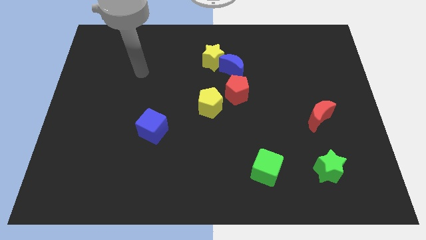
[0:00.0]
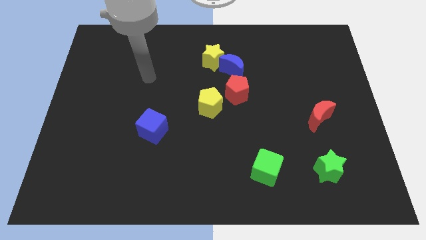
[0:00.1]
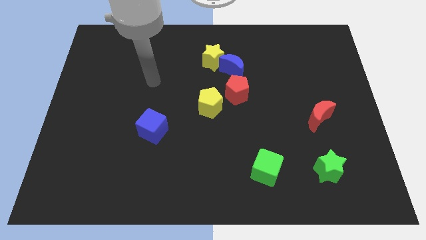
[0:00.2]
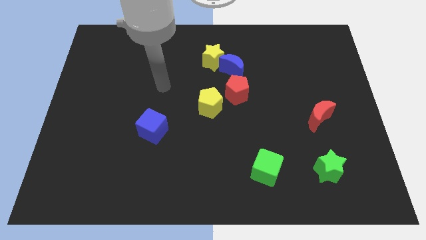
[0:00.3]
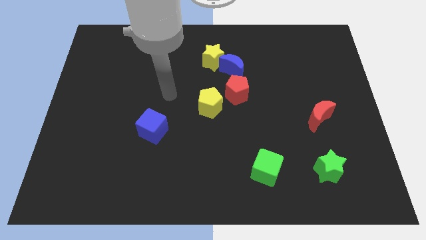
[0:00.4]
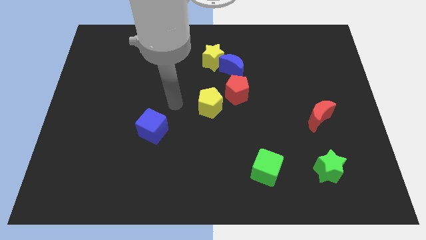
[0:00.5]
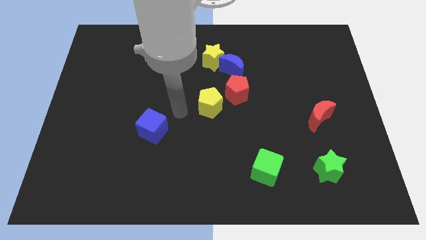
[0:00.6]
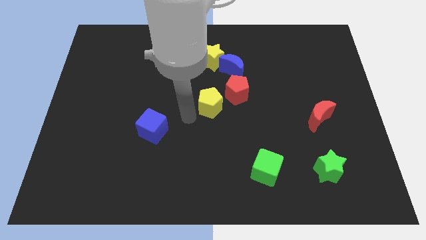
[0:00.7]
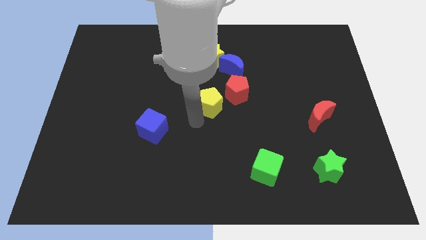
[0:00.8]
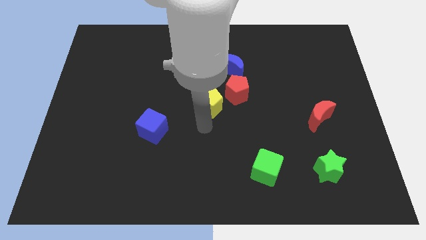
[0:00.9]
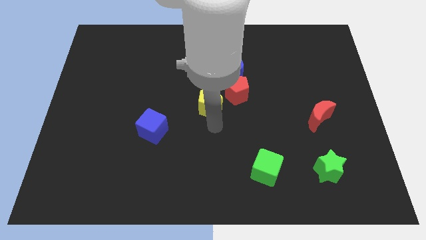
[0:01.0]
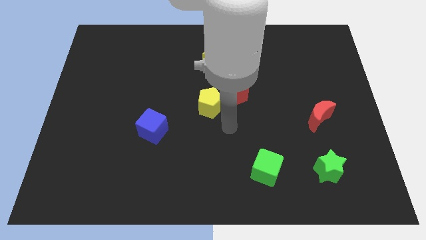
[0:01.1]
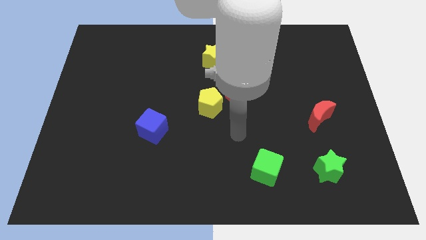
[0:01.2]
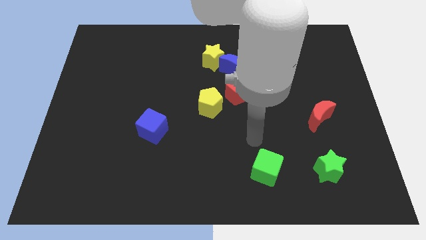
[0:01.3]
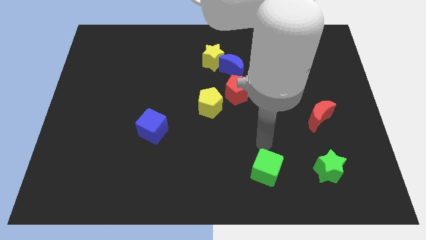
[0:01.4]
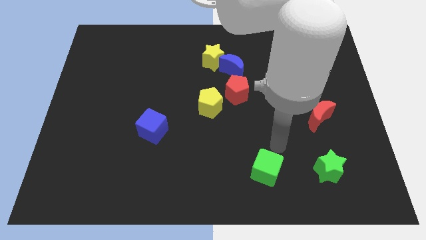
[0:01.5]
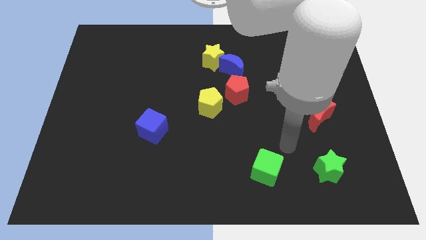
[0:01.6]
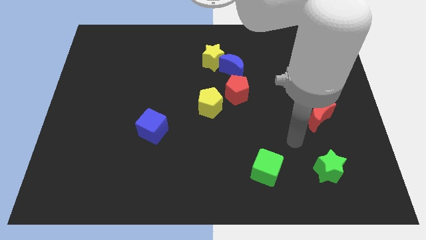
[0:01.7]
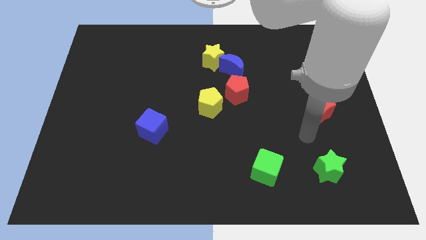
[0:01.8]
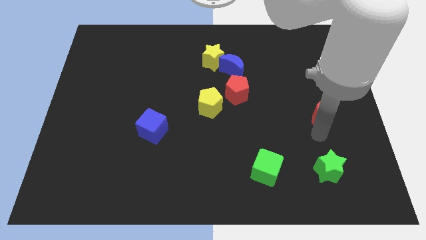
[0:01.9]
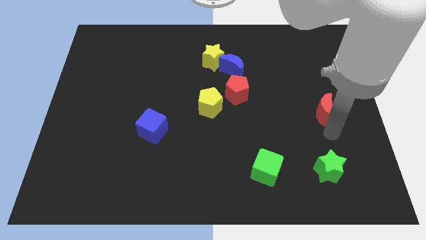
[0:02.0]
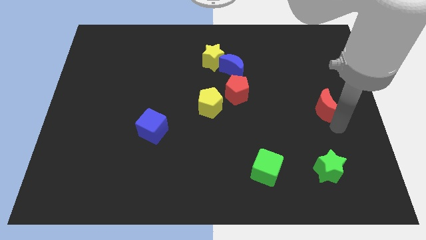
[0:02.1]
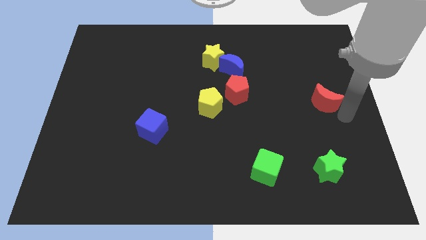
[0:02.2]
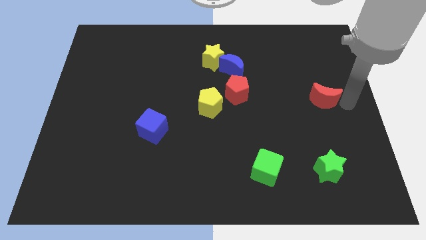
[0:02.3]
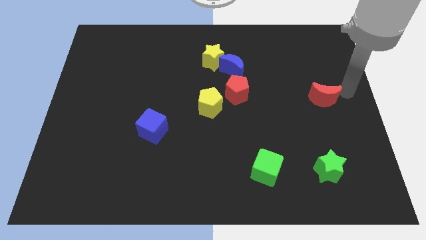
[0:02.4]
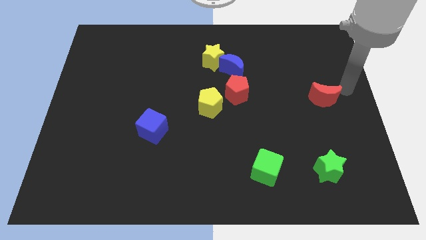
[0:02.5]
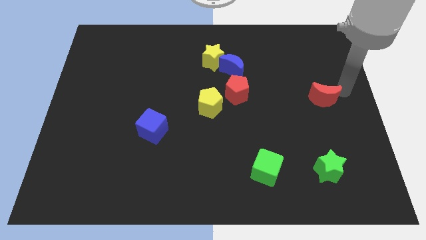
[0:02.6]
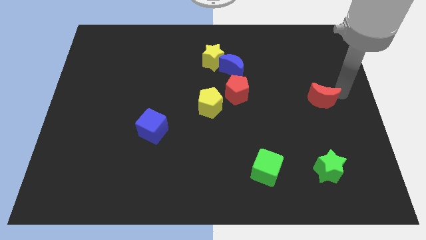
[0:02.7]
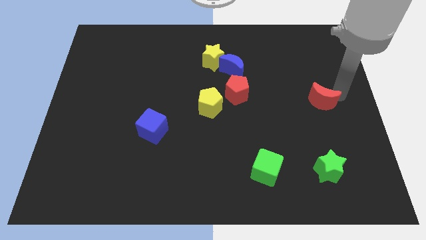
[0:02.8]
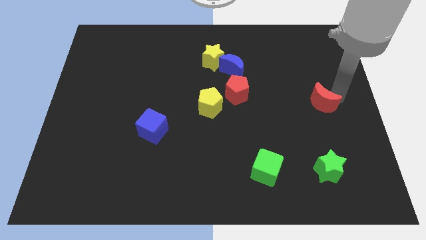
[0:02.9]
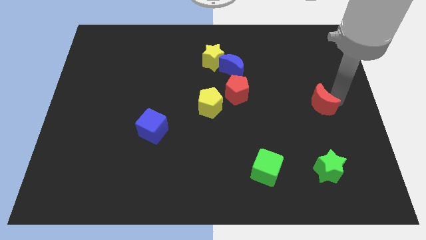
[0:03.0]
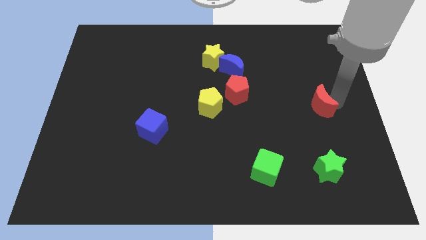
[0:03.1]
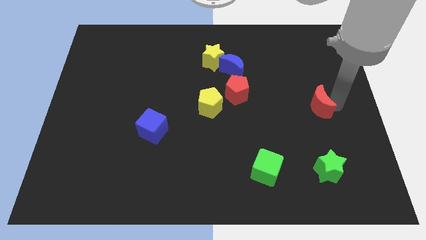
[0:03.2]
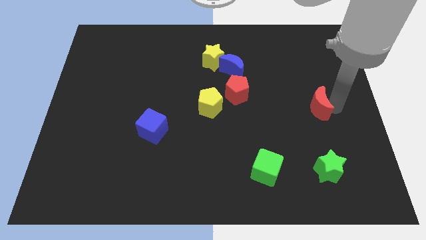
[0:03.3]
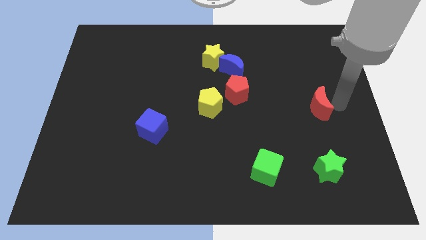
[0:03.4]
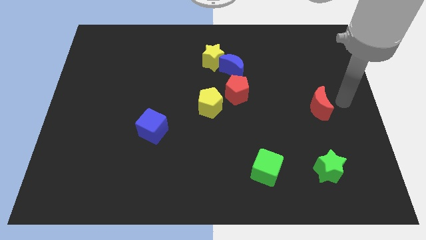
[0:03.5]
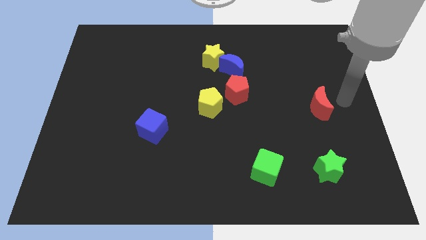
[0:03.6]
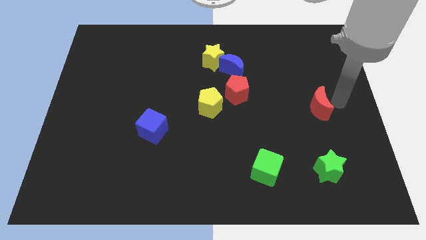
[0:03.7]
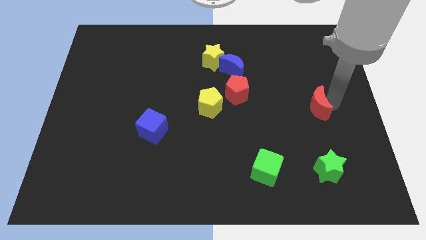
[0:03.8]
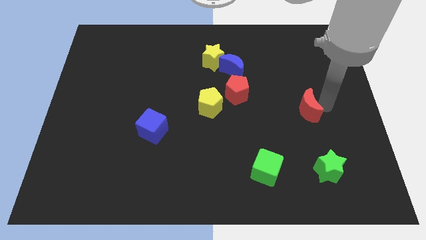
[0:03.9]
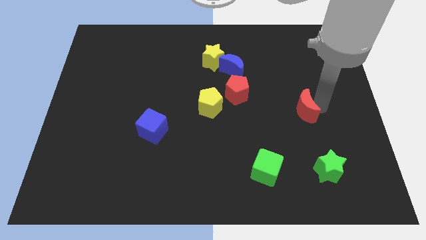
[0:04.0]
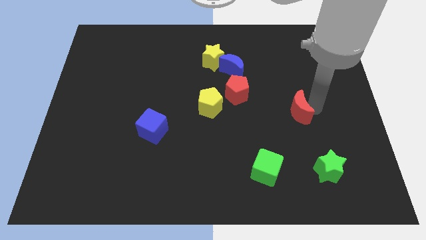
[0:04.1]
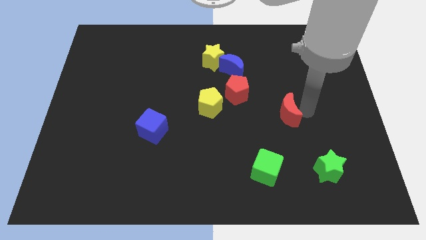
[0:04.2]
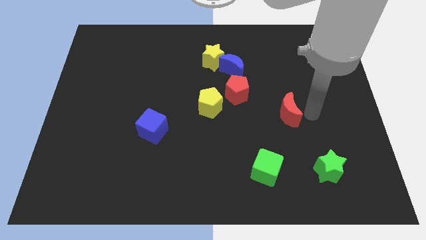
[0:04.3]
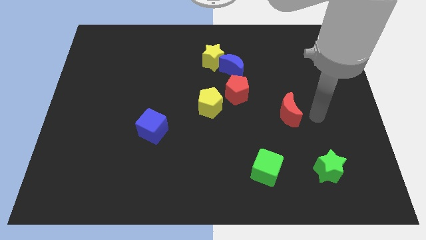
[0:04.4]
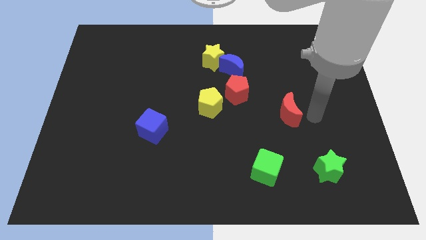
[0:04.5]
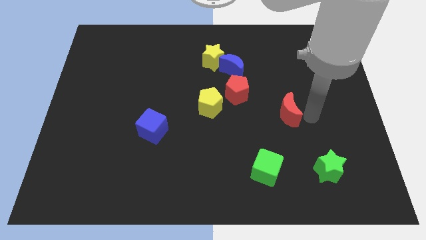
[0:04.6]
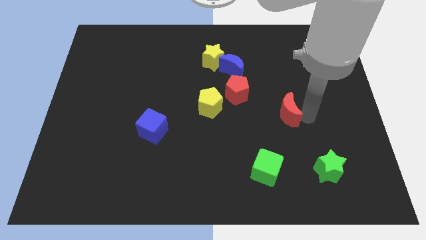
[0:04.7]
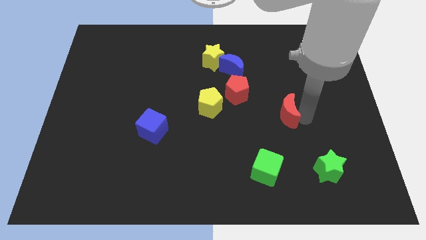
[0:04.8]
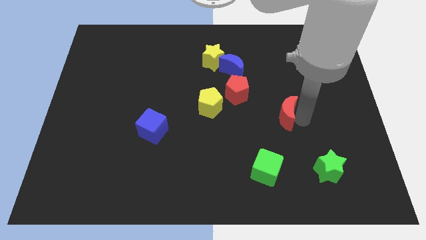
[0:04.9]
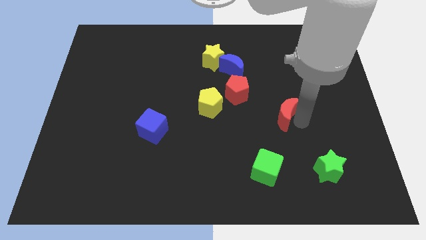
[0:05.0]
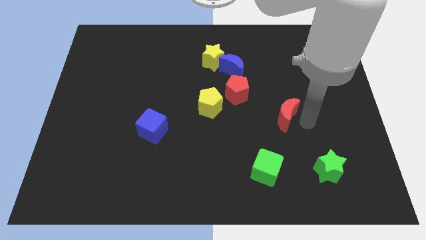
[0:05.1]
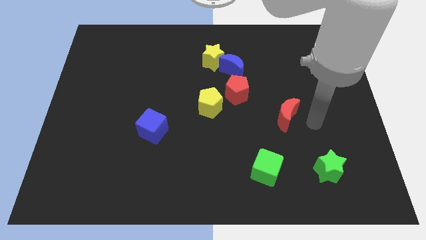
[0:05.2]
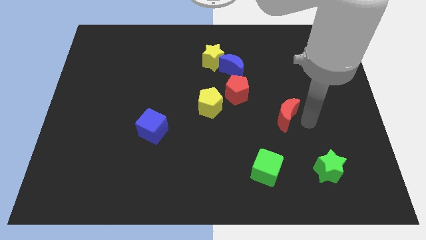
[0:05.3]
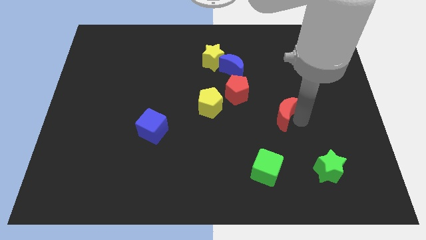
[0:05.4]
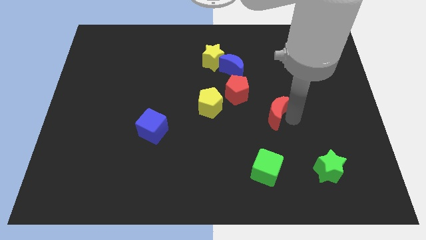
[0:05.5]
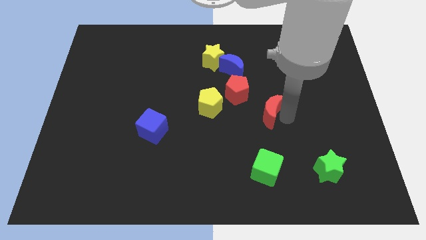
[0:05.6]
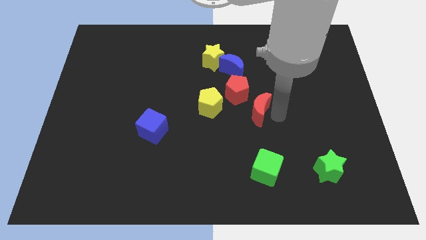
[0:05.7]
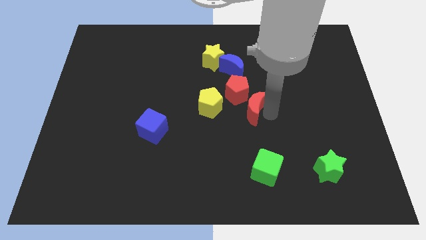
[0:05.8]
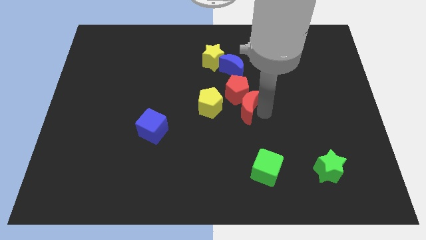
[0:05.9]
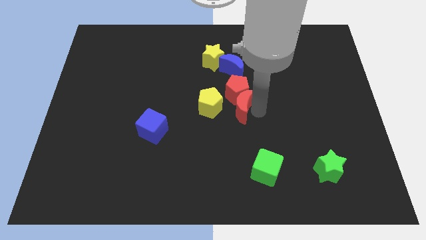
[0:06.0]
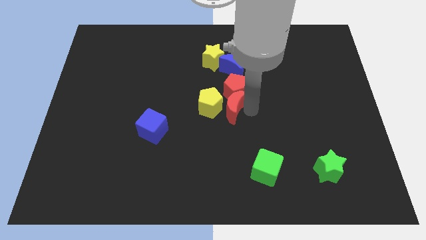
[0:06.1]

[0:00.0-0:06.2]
move the red moon next to the yellow pentagon

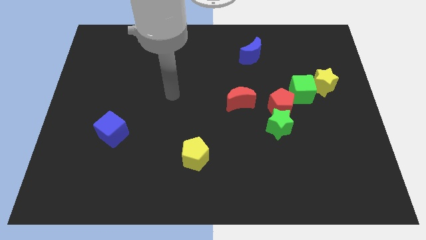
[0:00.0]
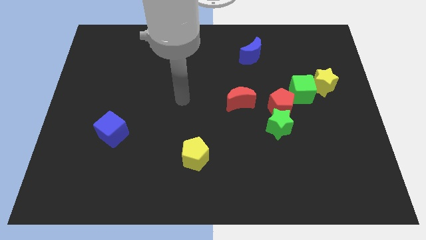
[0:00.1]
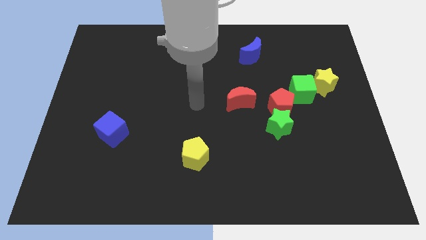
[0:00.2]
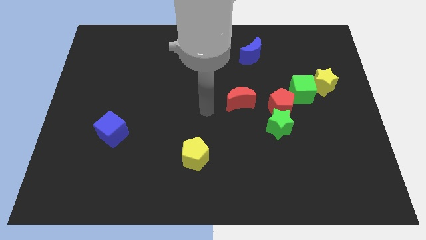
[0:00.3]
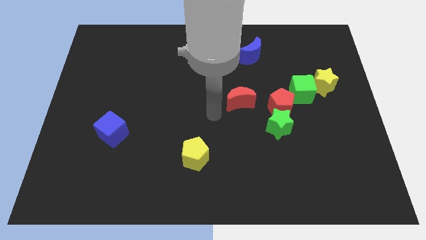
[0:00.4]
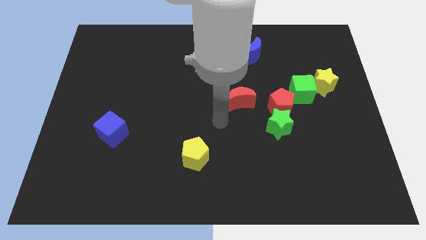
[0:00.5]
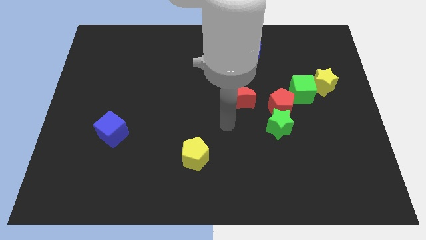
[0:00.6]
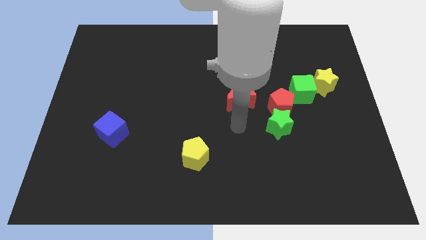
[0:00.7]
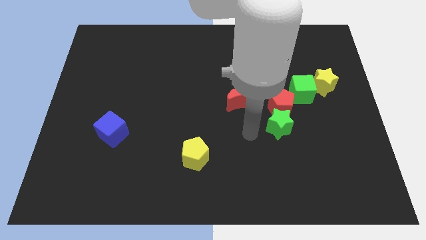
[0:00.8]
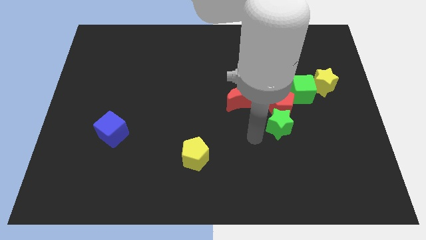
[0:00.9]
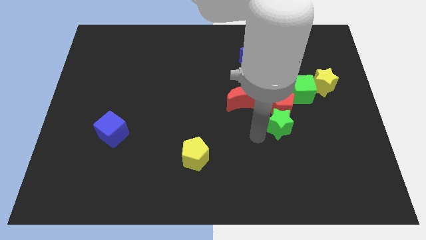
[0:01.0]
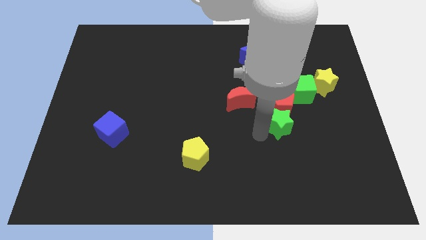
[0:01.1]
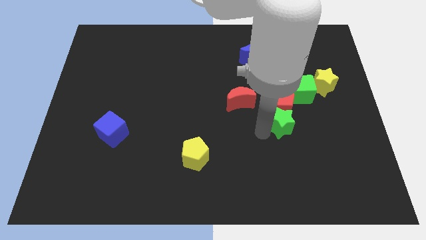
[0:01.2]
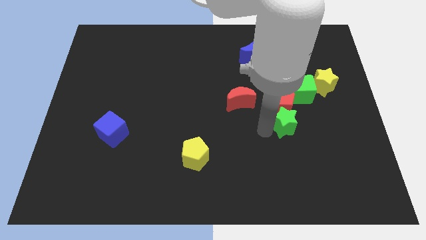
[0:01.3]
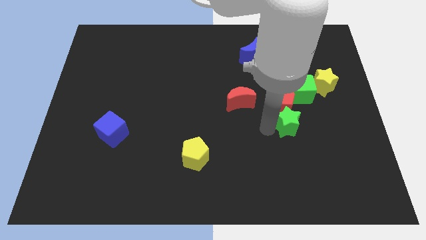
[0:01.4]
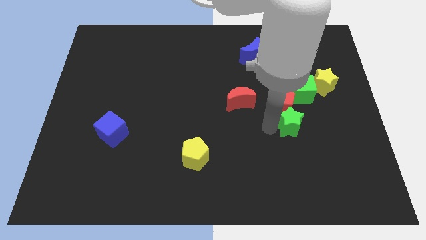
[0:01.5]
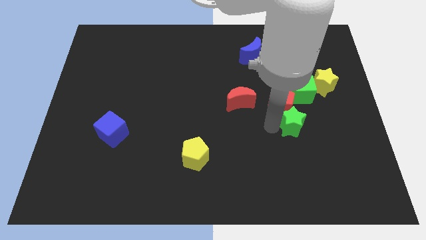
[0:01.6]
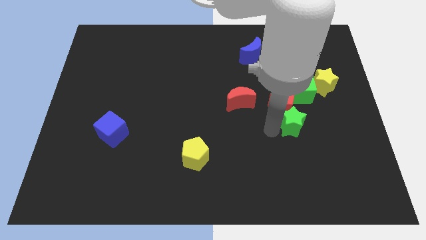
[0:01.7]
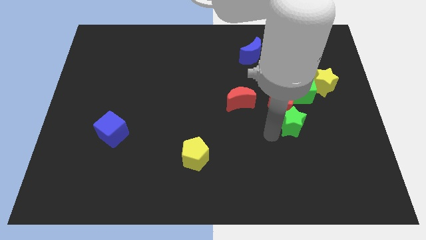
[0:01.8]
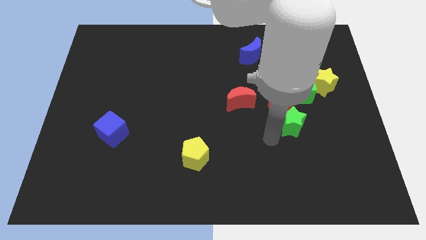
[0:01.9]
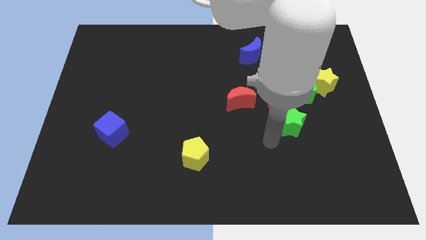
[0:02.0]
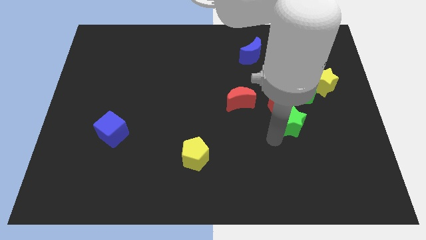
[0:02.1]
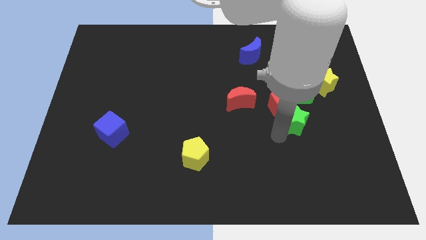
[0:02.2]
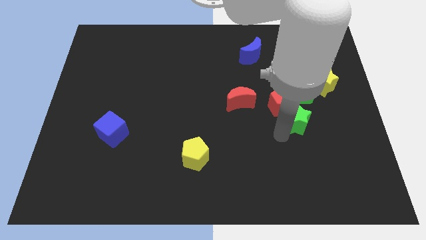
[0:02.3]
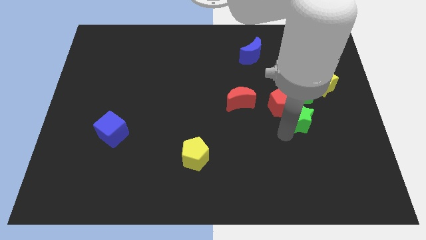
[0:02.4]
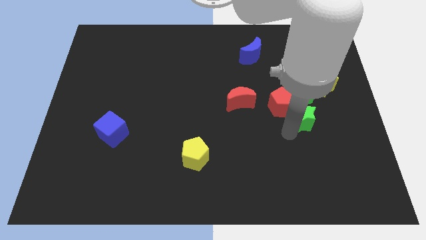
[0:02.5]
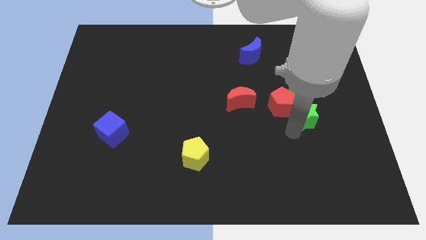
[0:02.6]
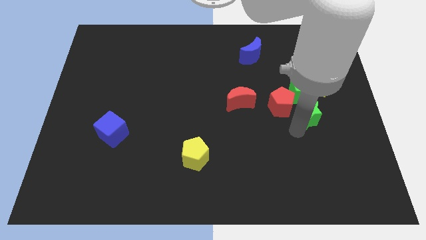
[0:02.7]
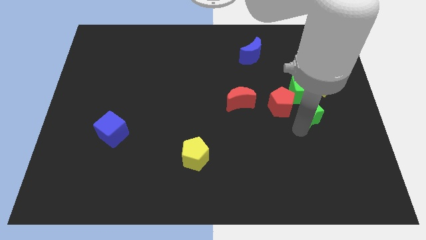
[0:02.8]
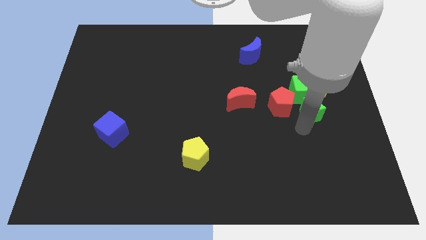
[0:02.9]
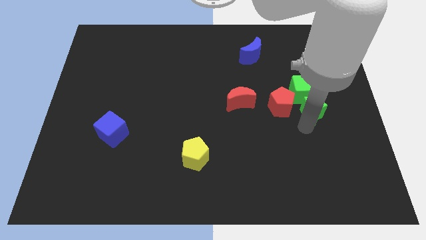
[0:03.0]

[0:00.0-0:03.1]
push the green star towards the green cube
